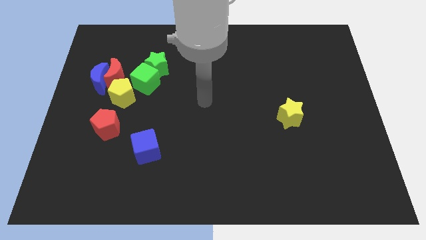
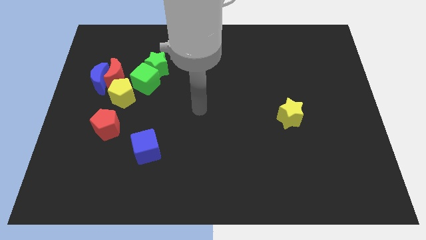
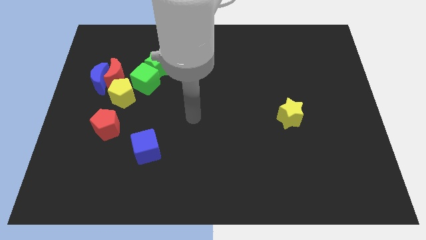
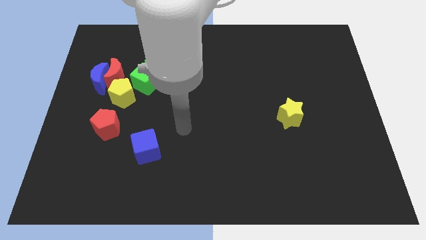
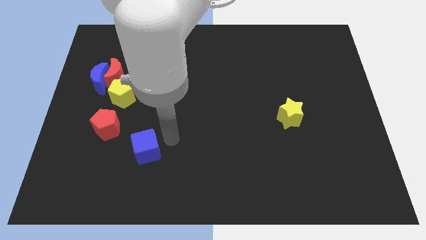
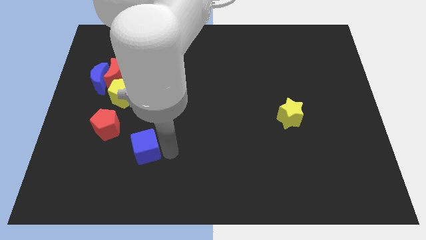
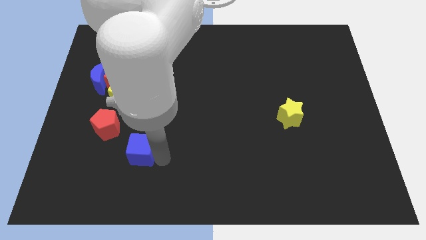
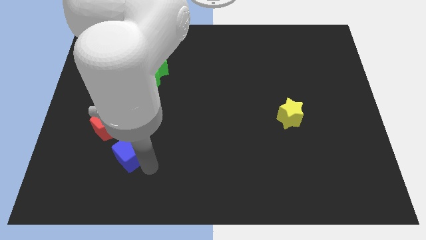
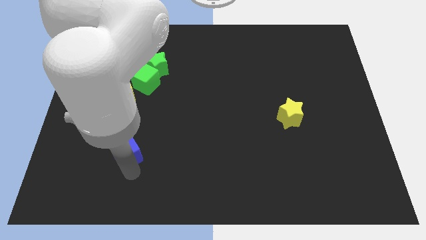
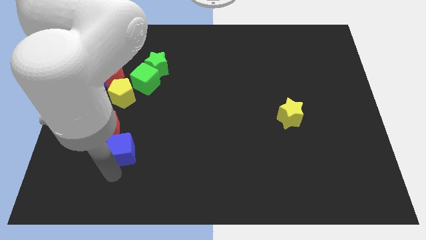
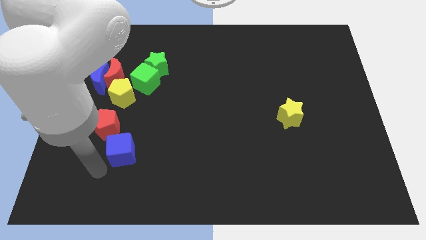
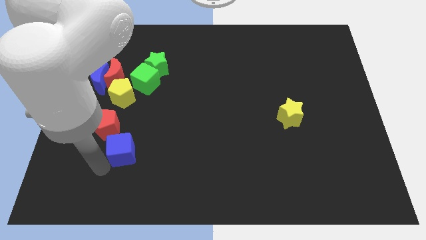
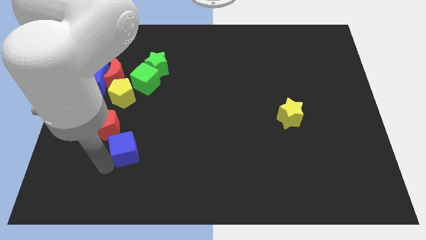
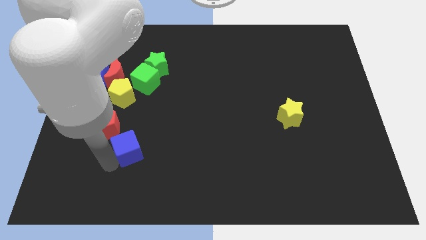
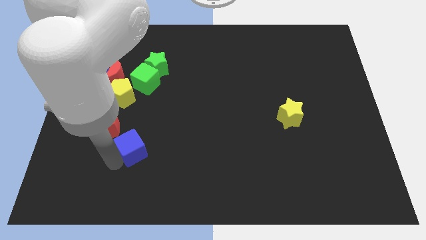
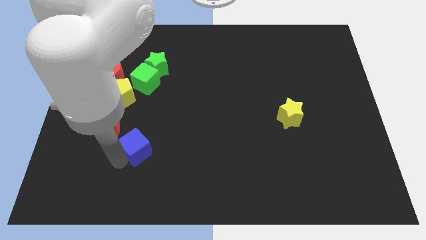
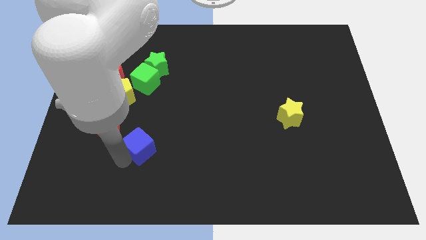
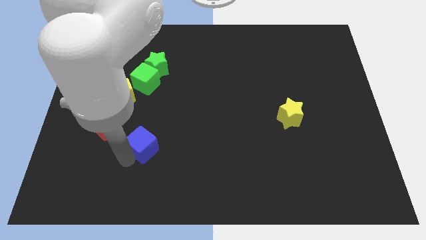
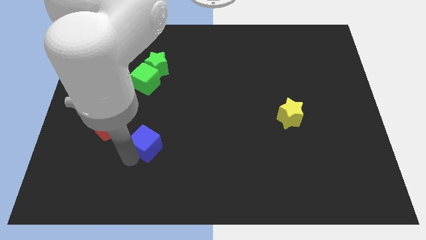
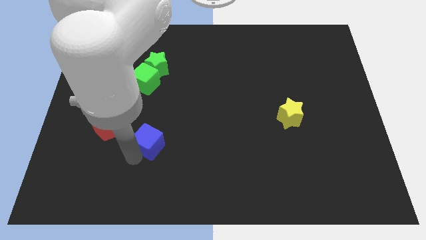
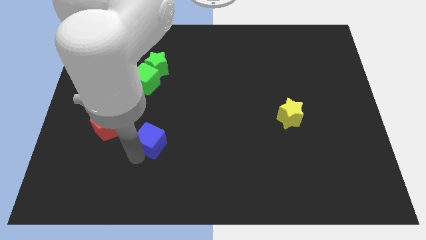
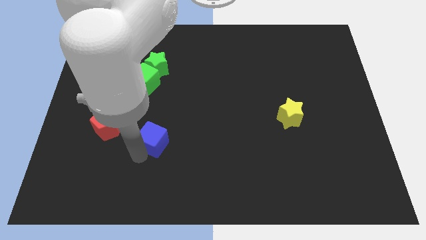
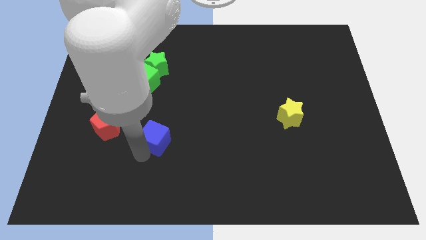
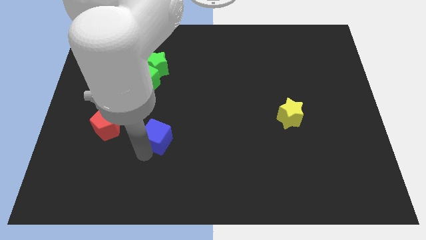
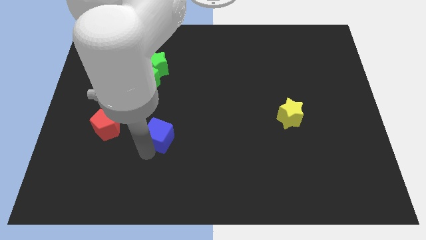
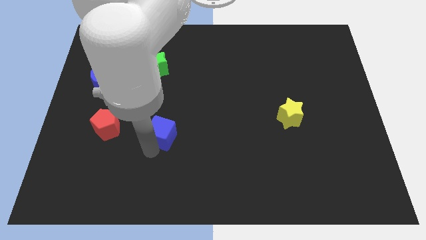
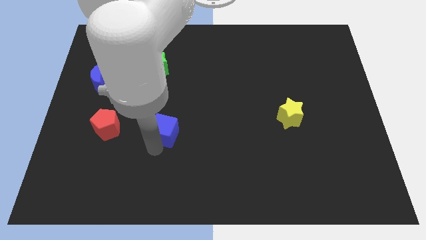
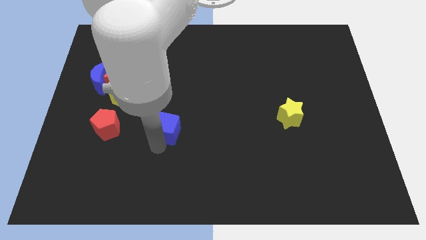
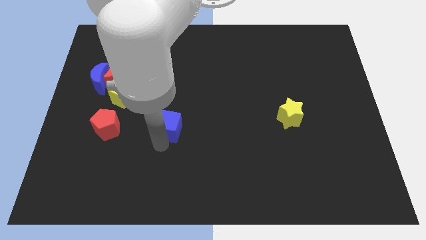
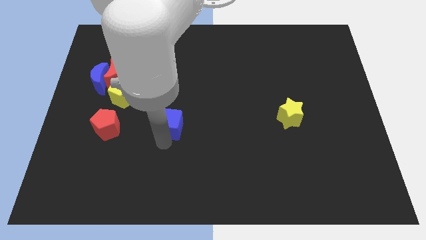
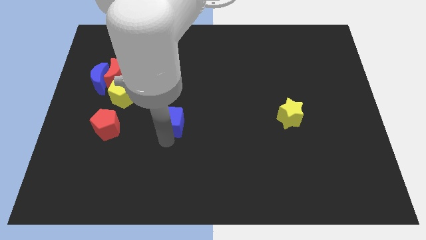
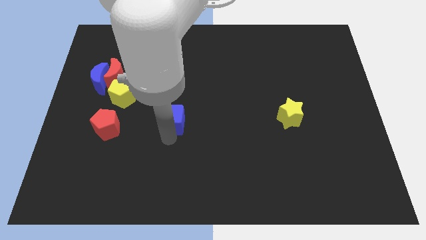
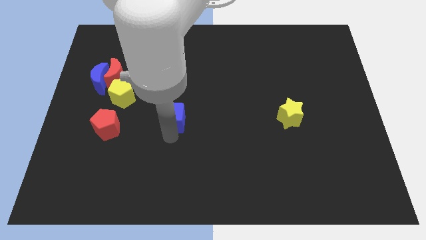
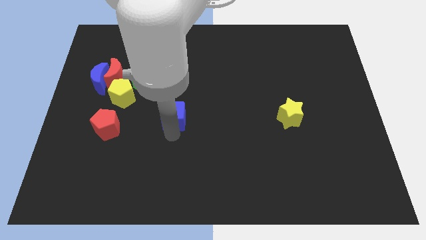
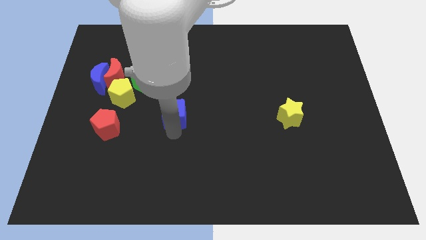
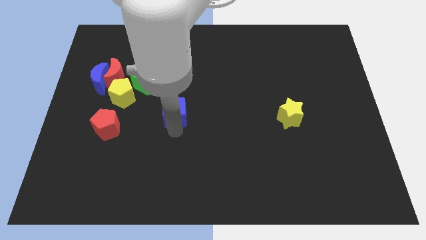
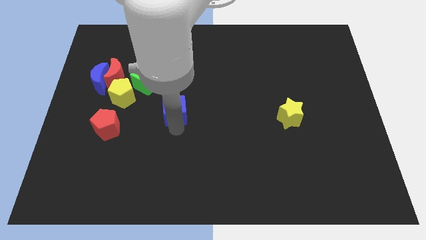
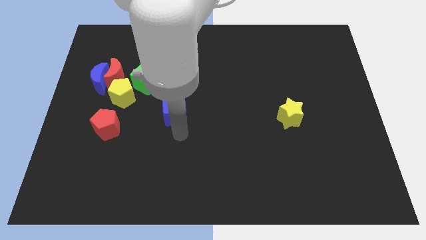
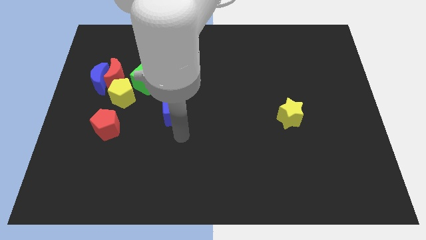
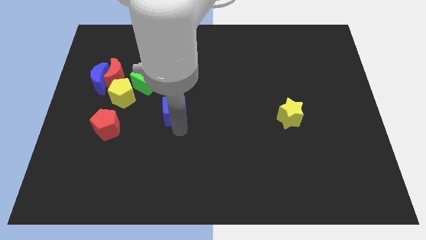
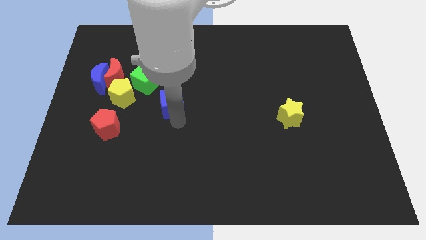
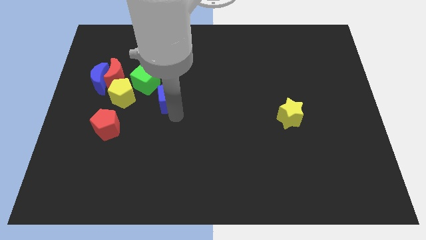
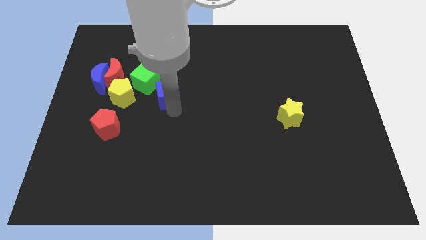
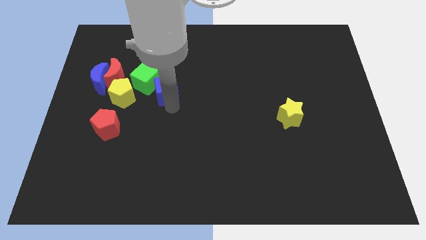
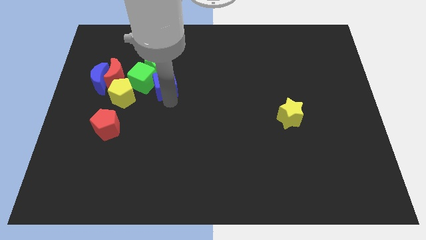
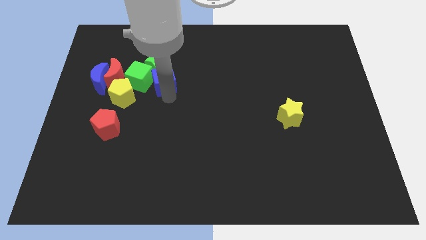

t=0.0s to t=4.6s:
put the blue cube close to the green star

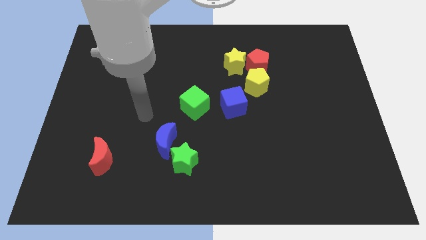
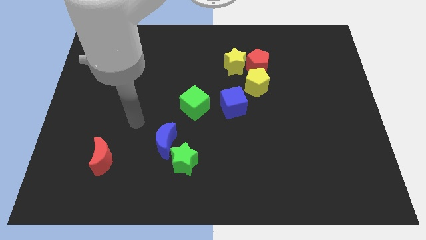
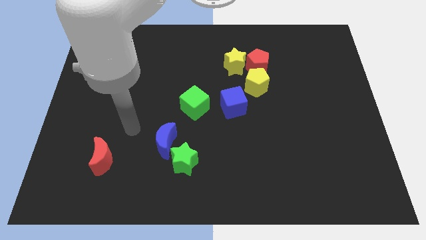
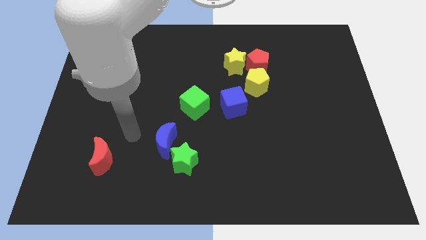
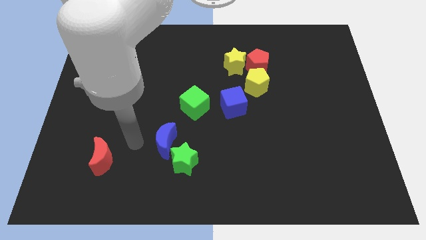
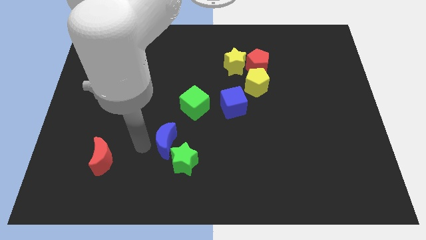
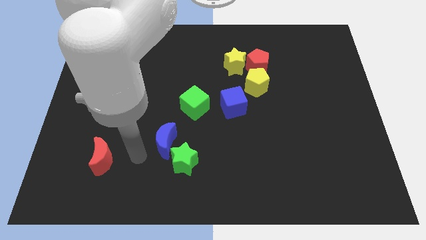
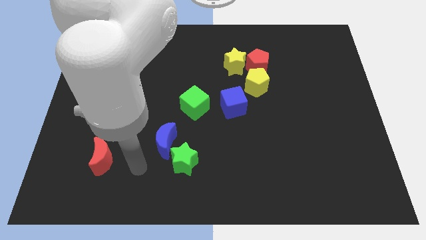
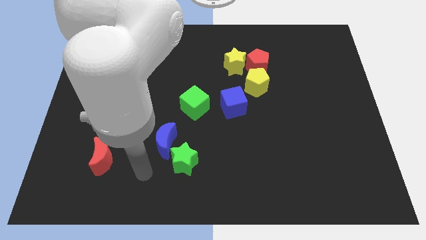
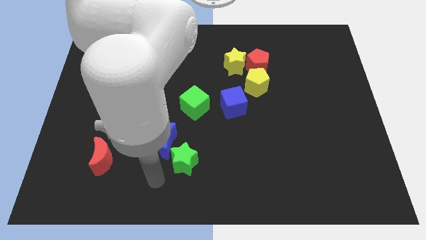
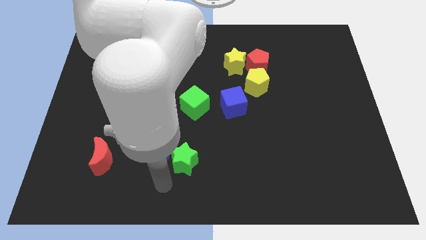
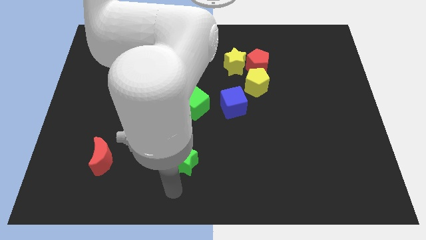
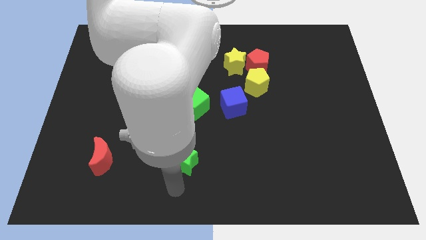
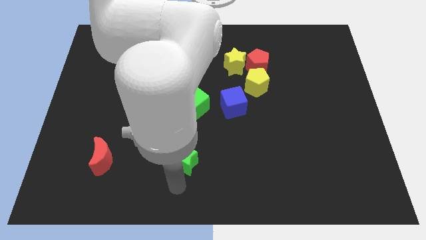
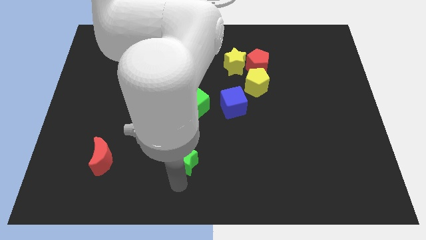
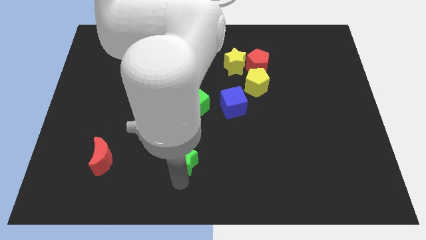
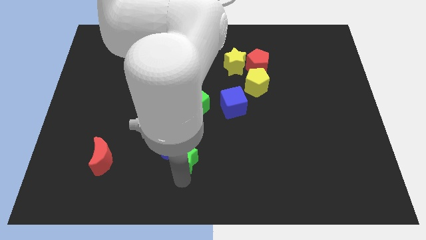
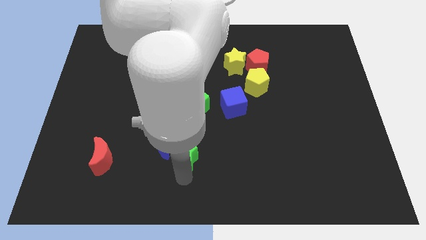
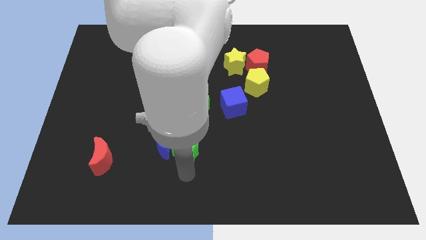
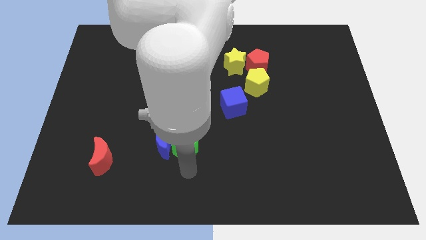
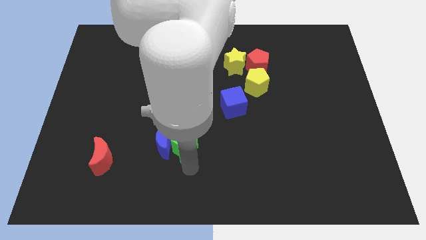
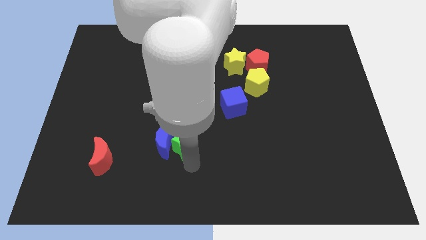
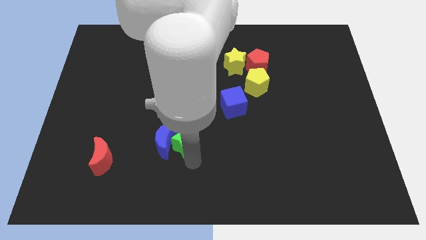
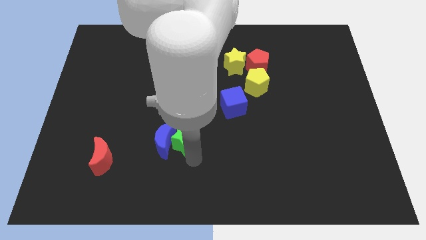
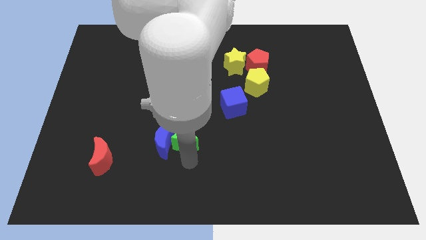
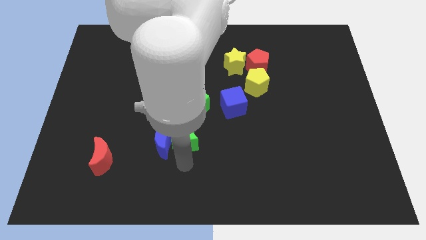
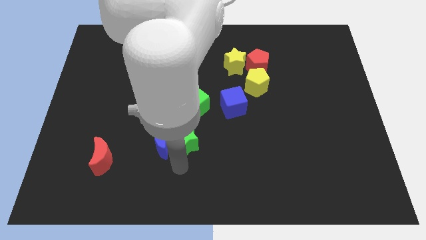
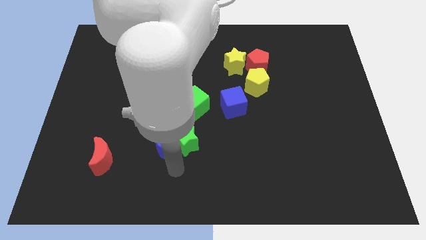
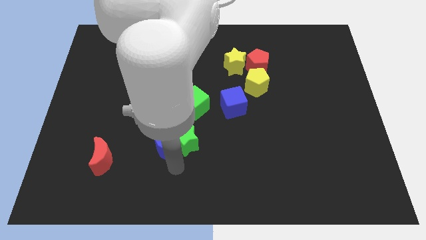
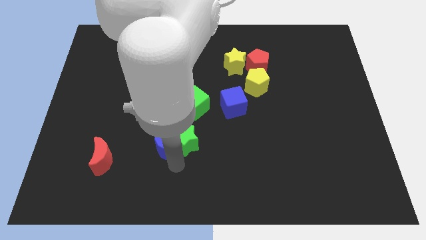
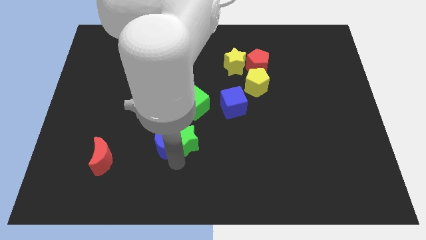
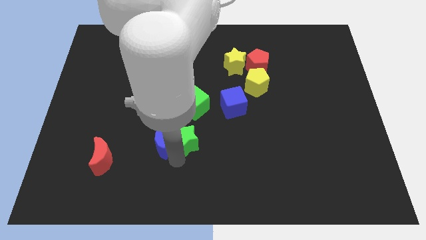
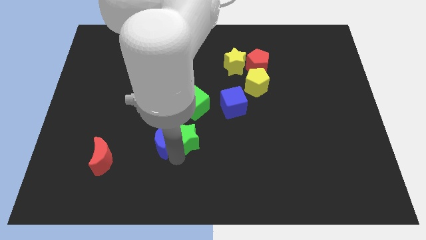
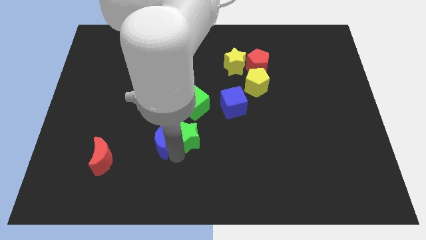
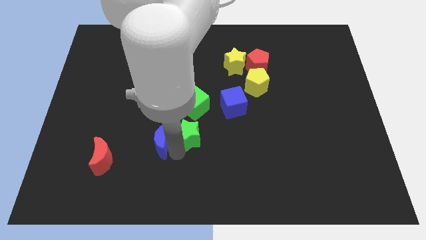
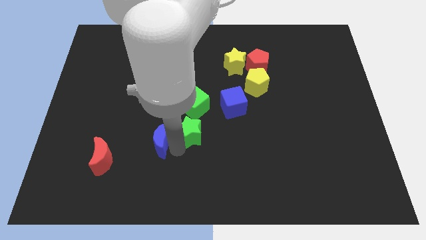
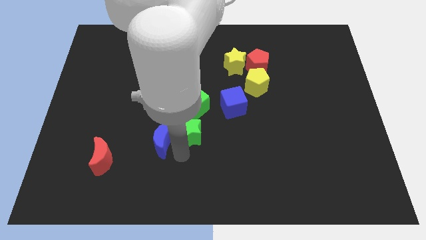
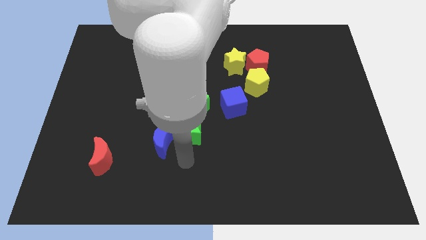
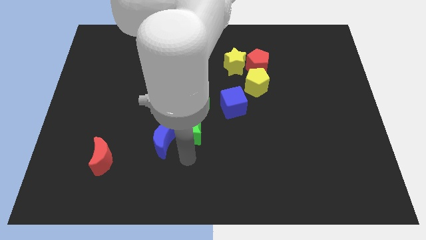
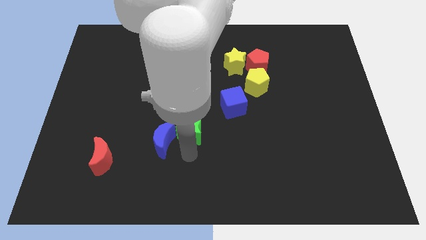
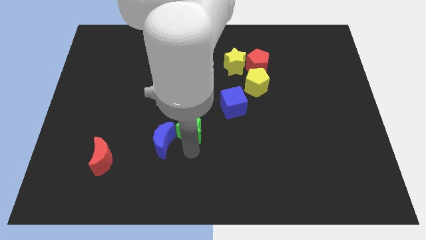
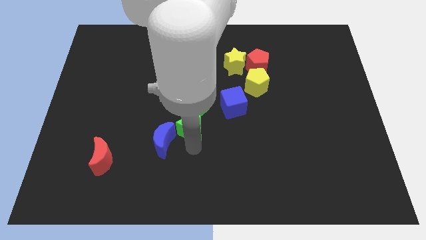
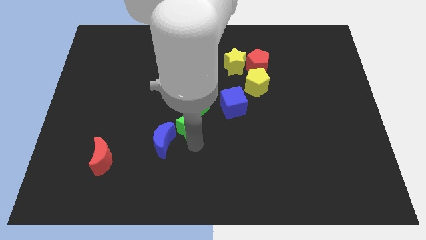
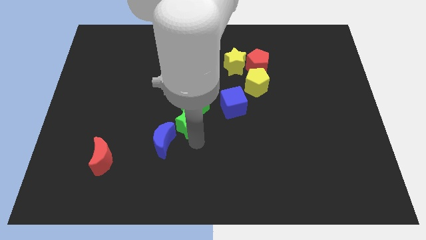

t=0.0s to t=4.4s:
put the green star close to the green cube
